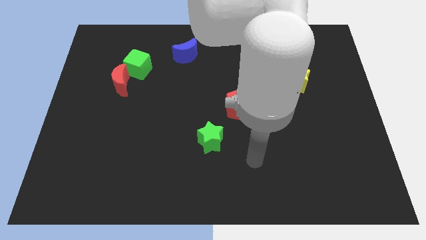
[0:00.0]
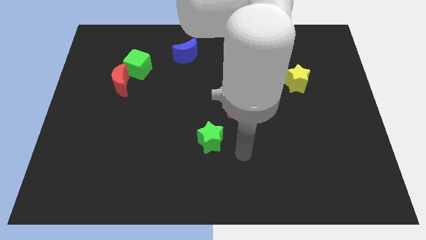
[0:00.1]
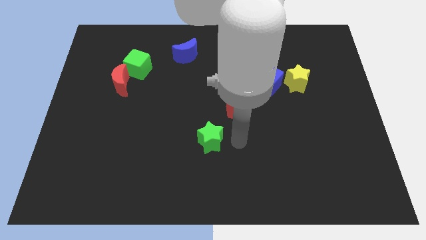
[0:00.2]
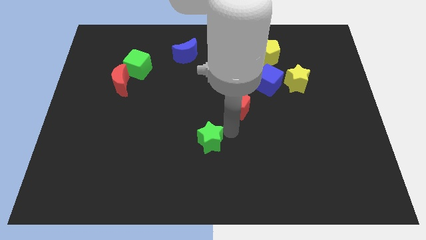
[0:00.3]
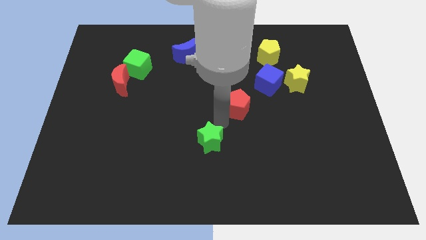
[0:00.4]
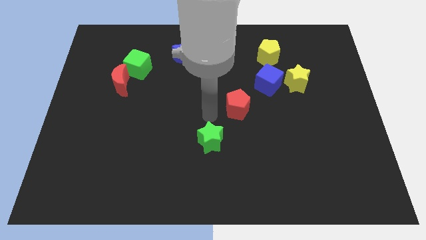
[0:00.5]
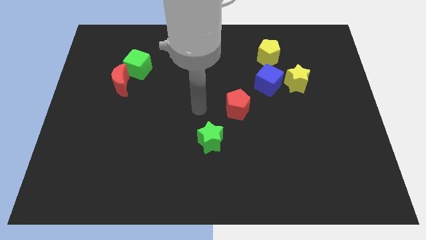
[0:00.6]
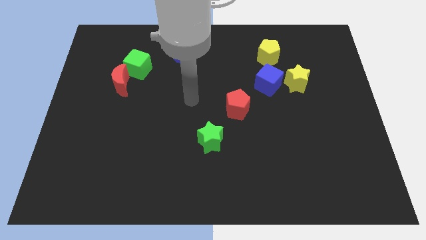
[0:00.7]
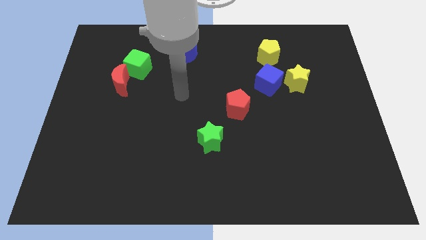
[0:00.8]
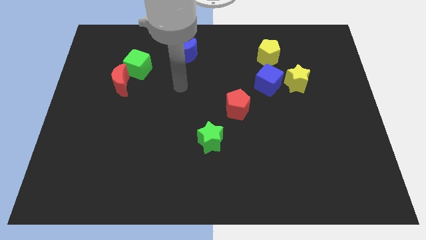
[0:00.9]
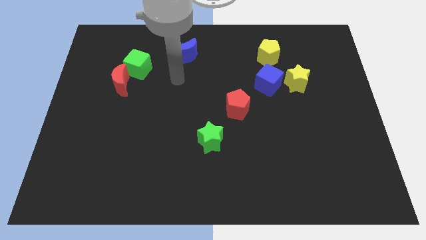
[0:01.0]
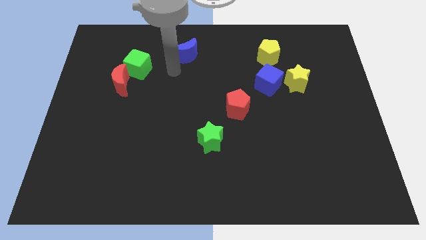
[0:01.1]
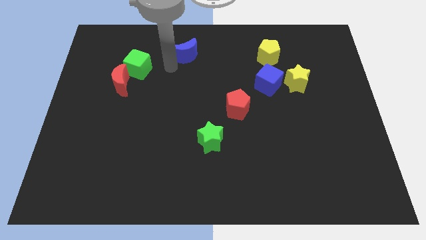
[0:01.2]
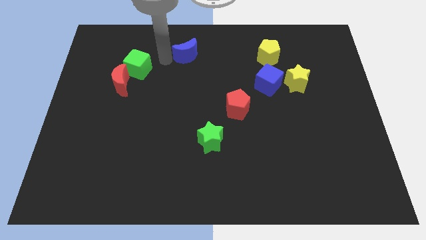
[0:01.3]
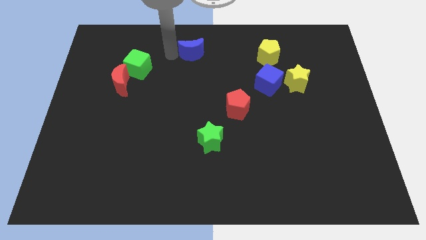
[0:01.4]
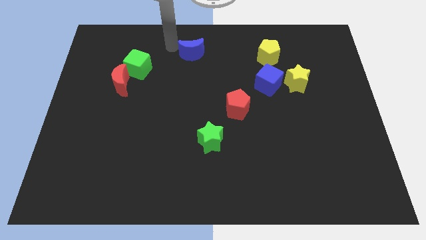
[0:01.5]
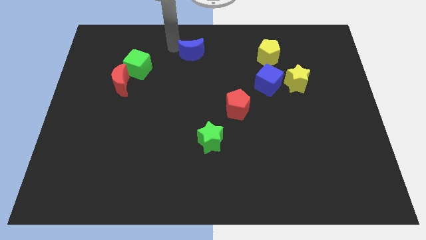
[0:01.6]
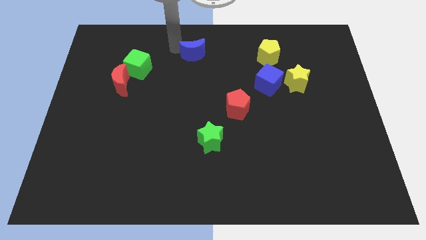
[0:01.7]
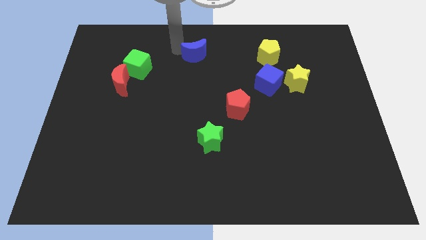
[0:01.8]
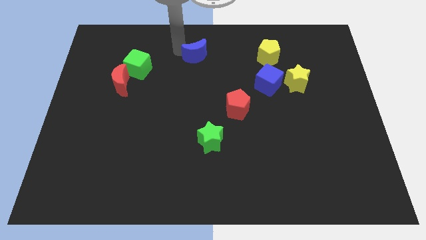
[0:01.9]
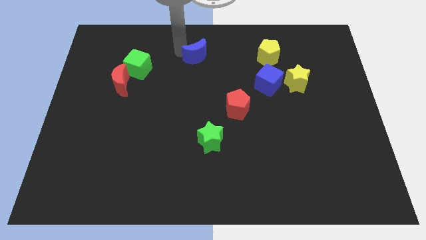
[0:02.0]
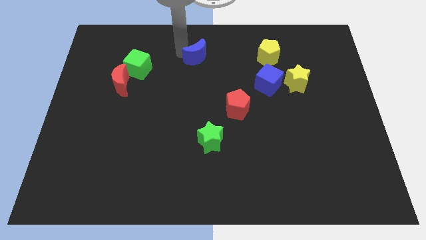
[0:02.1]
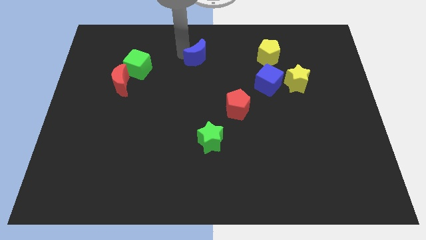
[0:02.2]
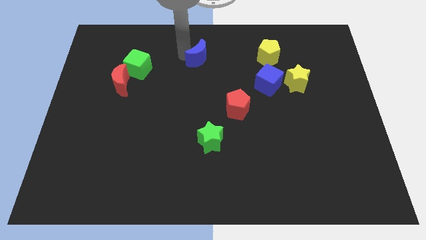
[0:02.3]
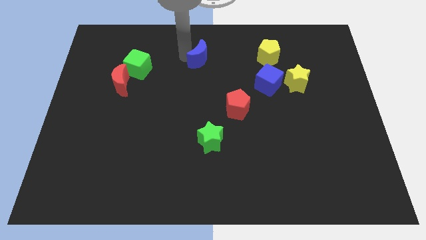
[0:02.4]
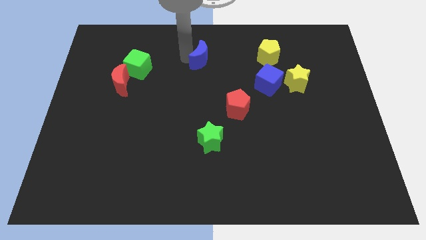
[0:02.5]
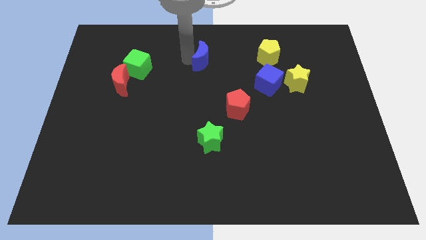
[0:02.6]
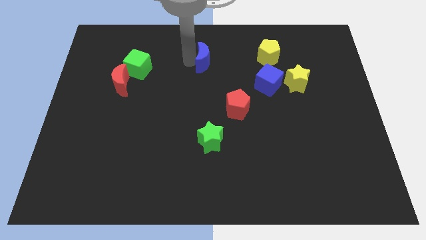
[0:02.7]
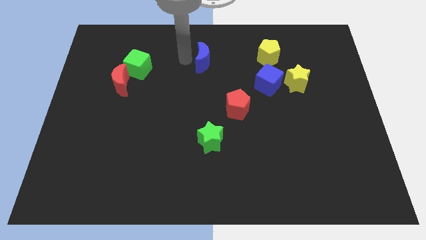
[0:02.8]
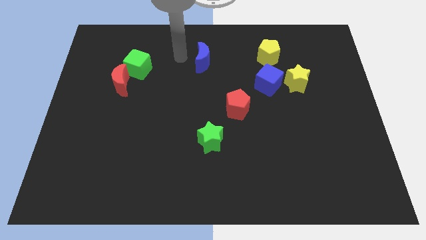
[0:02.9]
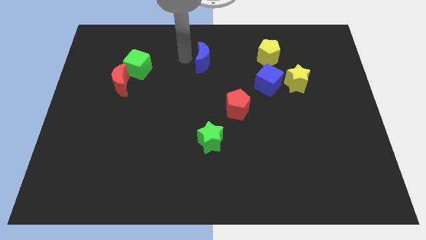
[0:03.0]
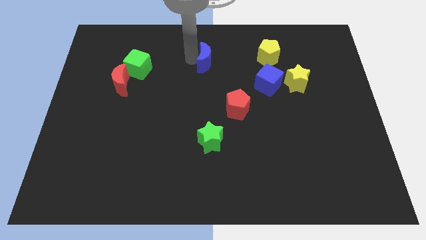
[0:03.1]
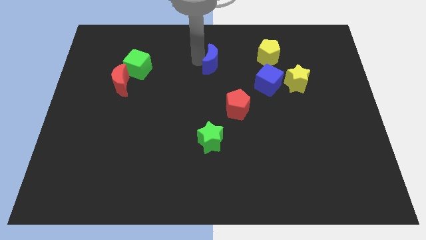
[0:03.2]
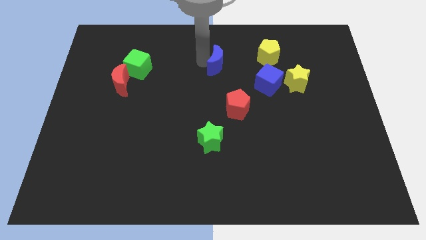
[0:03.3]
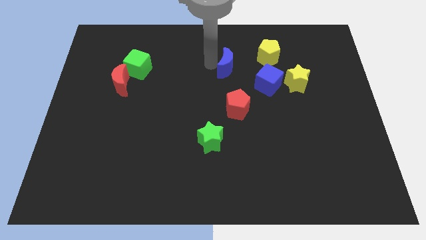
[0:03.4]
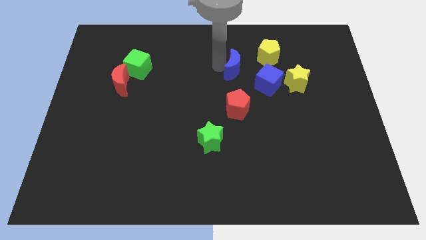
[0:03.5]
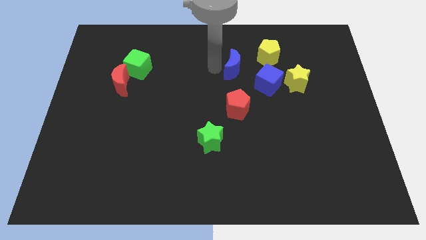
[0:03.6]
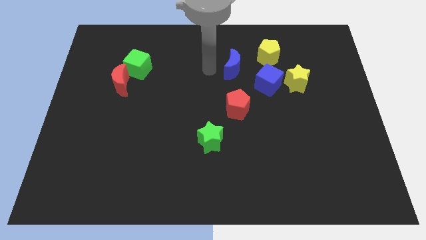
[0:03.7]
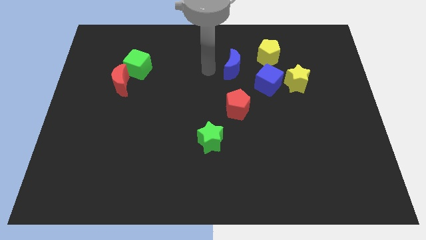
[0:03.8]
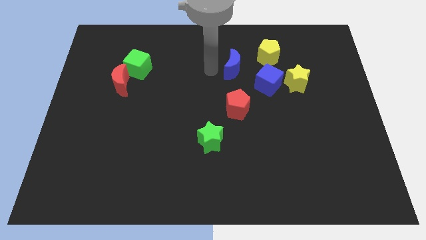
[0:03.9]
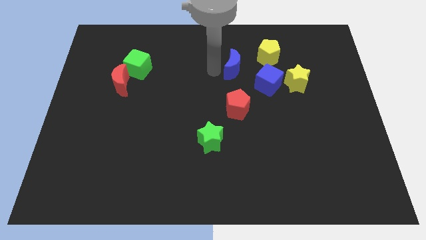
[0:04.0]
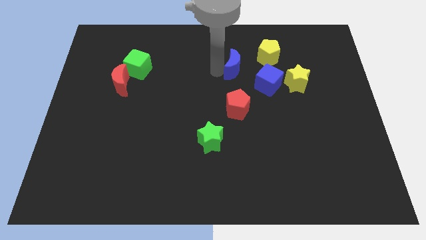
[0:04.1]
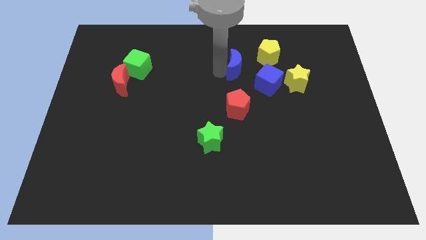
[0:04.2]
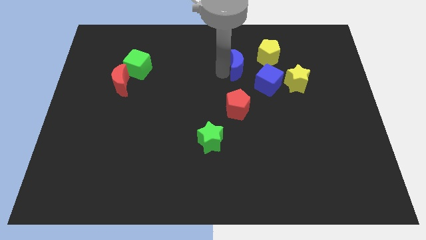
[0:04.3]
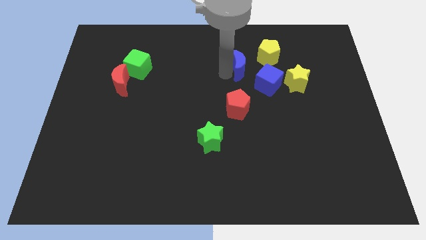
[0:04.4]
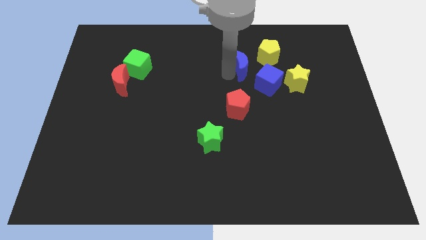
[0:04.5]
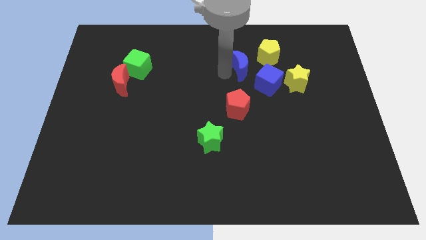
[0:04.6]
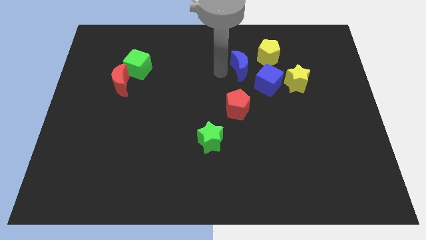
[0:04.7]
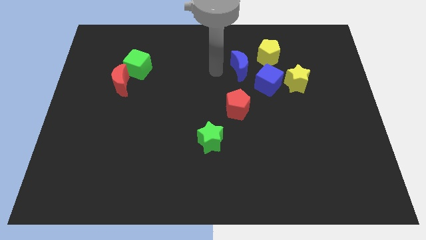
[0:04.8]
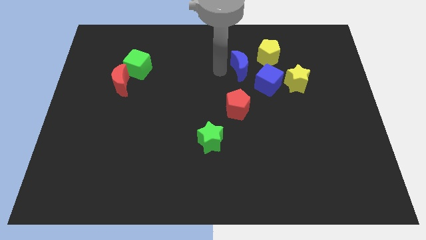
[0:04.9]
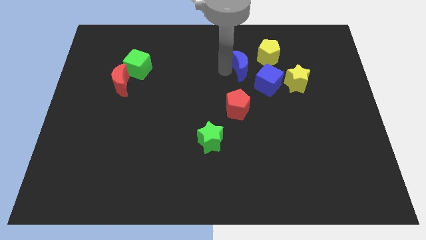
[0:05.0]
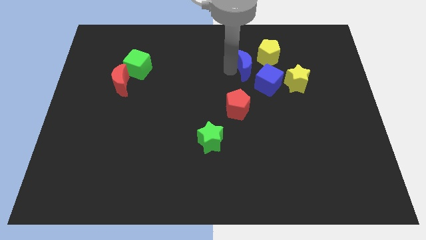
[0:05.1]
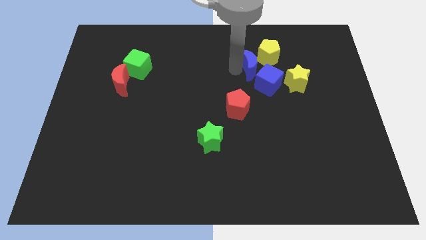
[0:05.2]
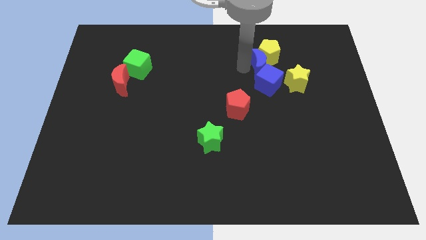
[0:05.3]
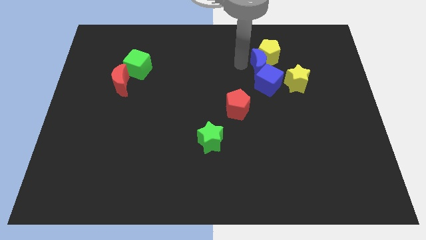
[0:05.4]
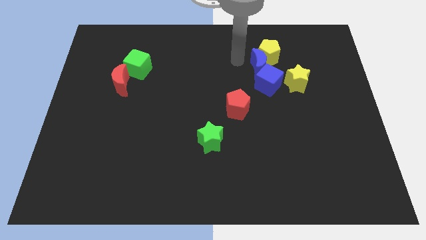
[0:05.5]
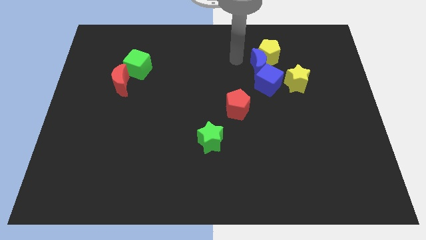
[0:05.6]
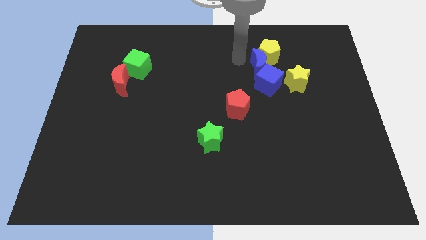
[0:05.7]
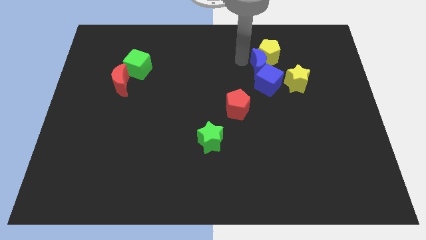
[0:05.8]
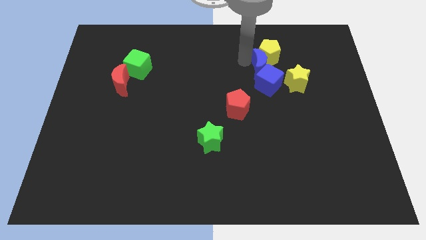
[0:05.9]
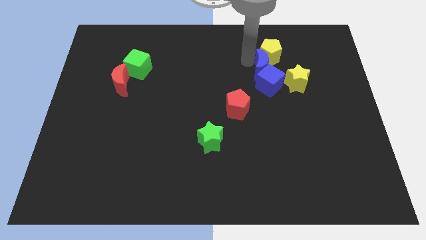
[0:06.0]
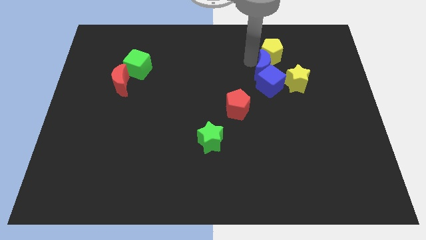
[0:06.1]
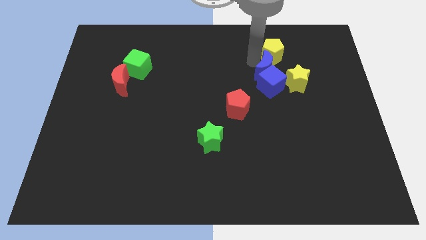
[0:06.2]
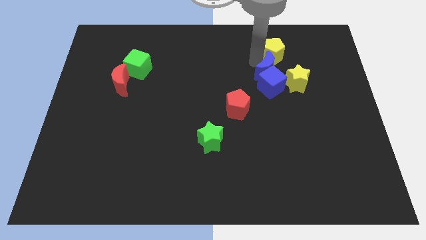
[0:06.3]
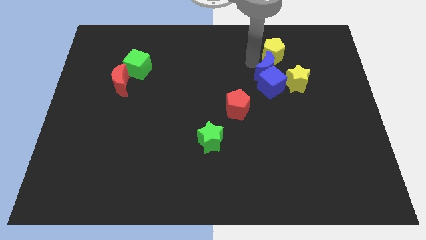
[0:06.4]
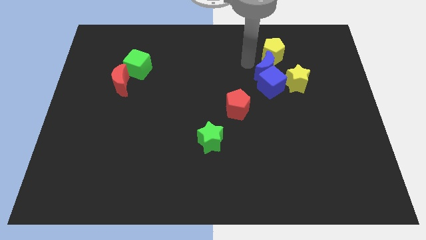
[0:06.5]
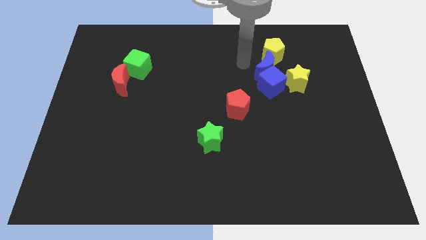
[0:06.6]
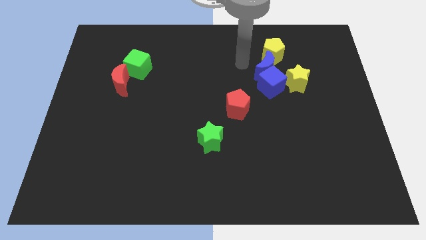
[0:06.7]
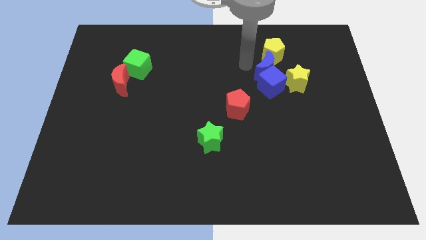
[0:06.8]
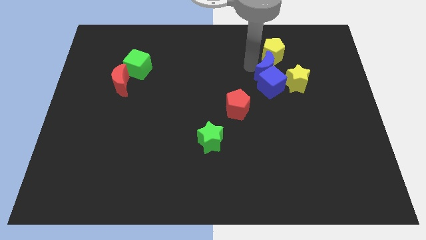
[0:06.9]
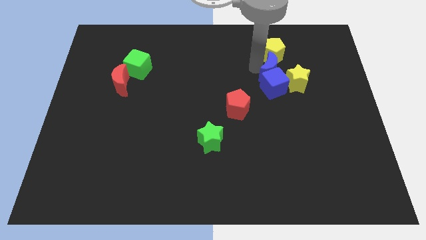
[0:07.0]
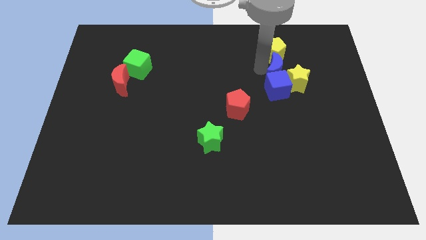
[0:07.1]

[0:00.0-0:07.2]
slide the blue moon close to the yellow star

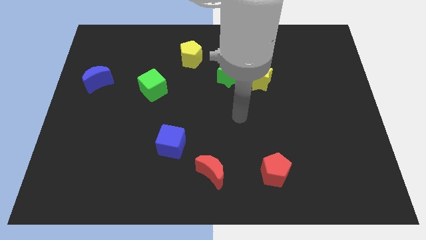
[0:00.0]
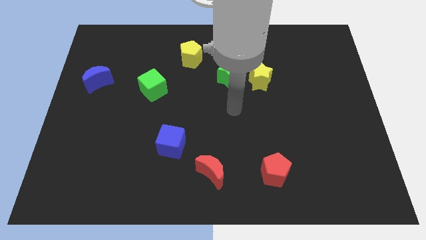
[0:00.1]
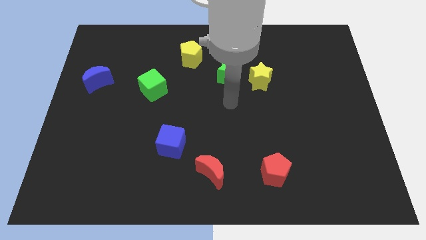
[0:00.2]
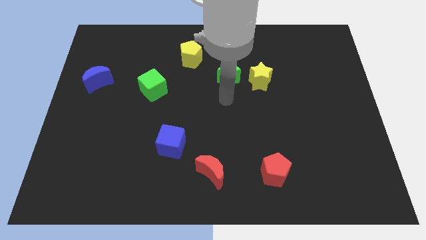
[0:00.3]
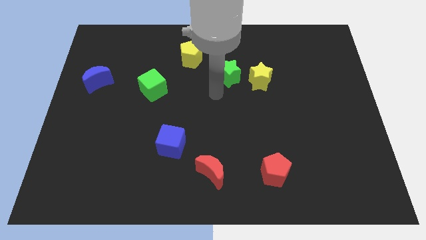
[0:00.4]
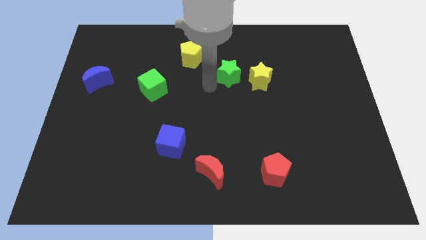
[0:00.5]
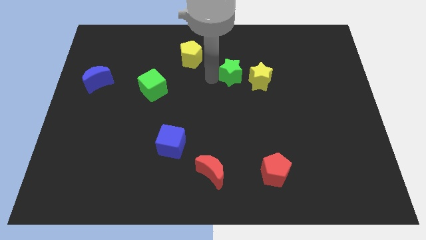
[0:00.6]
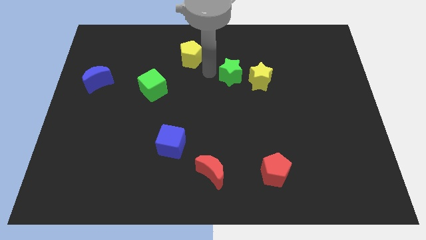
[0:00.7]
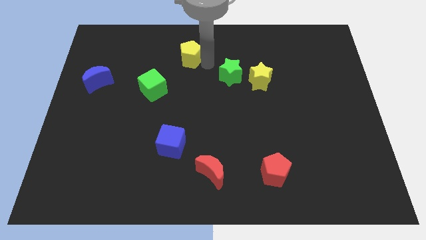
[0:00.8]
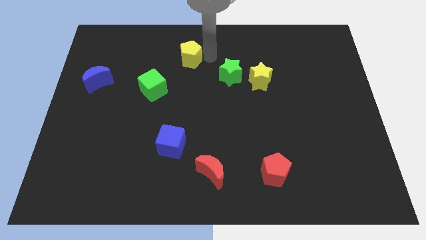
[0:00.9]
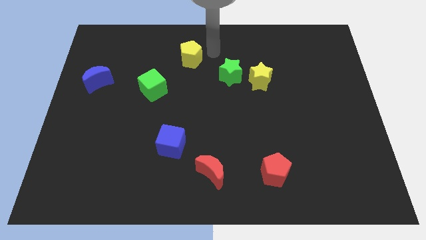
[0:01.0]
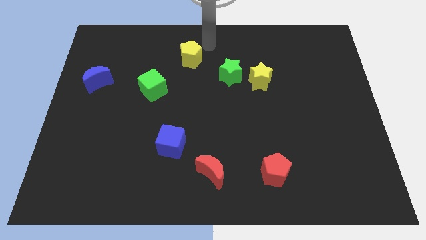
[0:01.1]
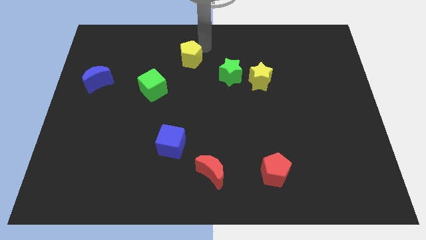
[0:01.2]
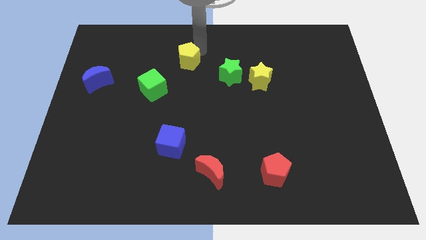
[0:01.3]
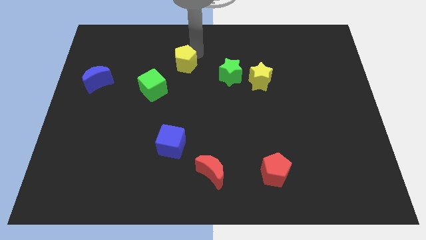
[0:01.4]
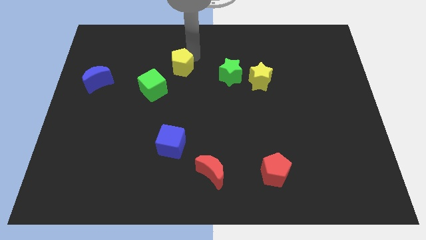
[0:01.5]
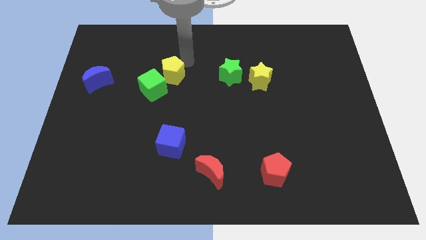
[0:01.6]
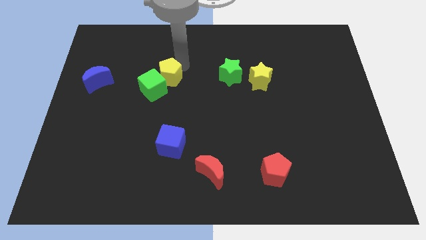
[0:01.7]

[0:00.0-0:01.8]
move the yellow pentagon towards the green cube
